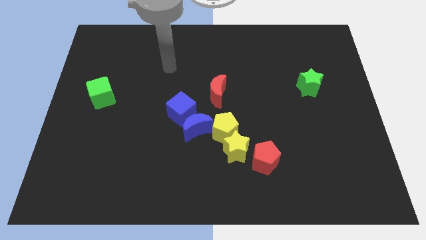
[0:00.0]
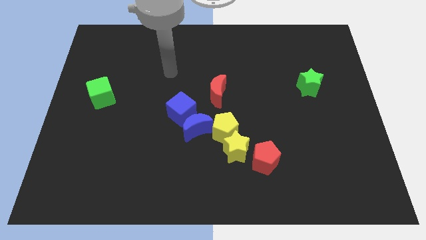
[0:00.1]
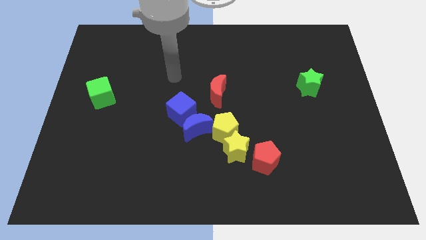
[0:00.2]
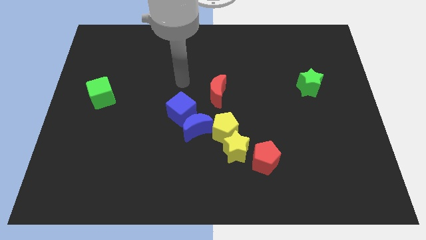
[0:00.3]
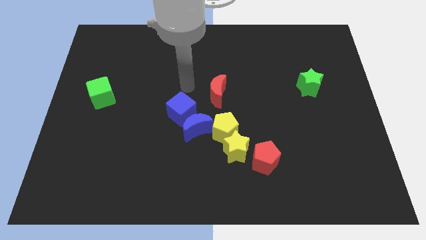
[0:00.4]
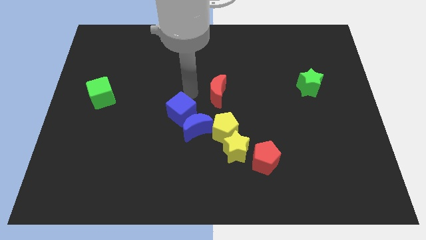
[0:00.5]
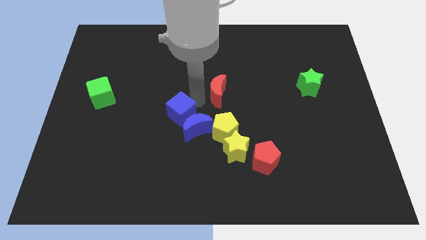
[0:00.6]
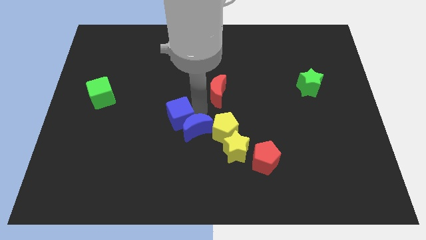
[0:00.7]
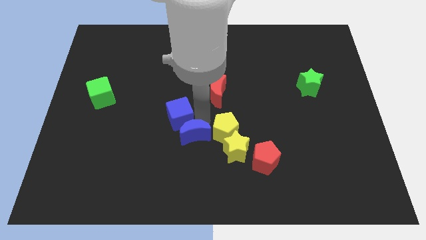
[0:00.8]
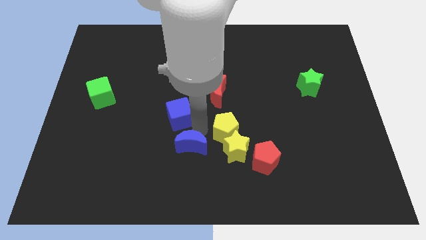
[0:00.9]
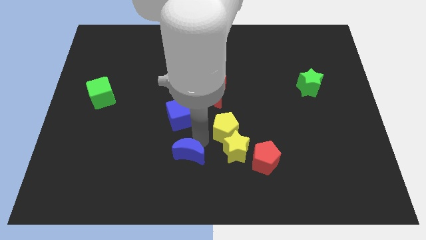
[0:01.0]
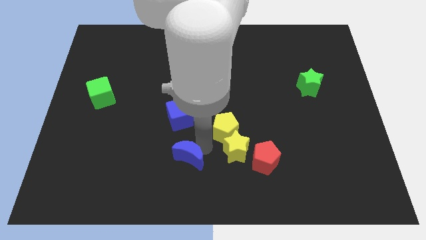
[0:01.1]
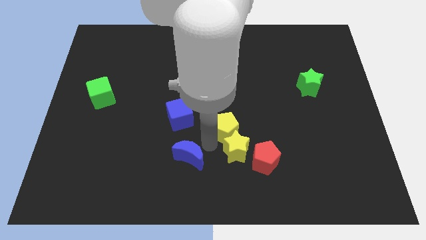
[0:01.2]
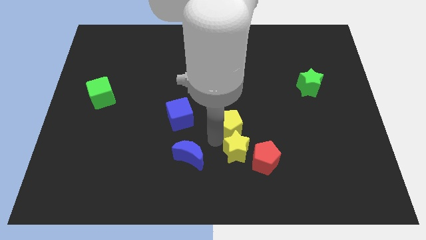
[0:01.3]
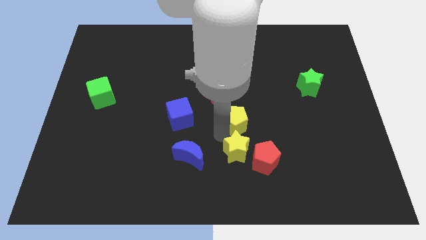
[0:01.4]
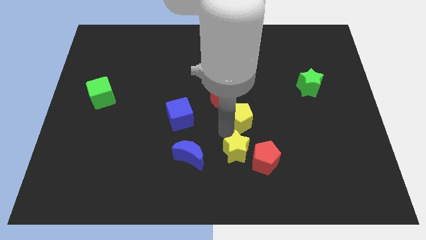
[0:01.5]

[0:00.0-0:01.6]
separate the yellow pentagon from the yellow star and blue moon

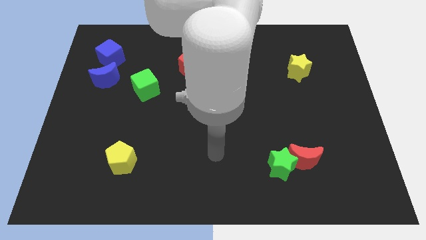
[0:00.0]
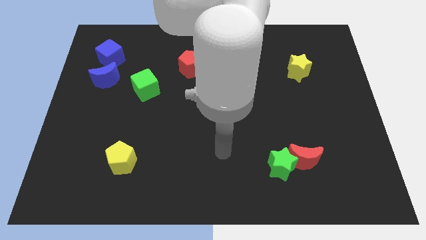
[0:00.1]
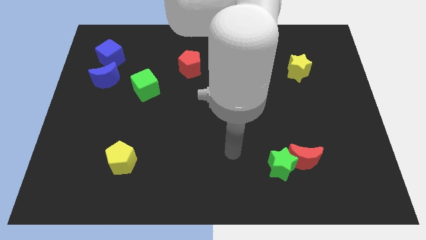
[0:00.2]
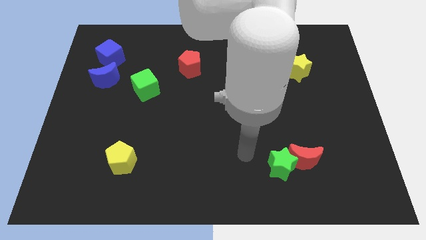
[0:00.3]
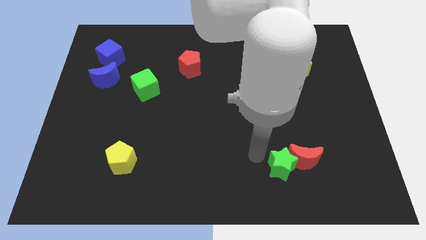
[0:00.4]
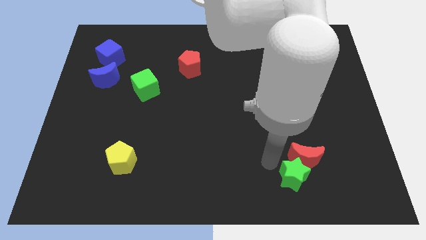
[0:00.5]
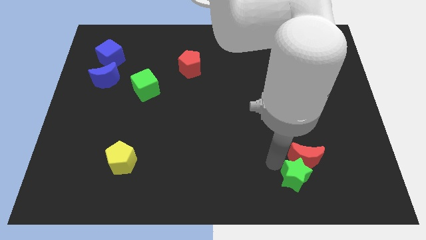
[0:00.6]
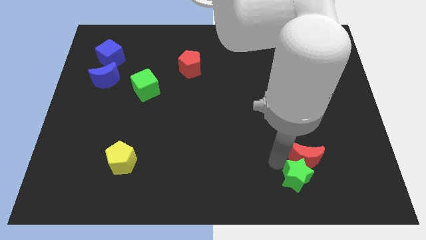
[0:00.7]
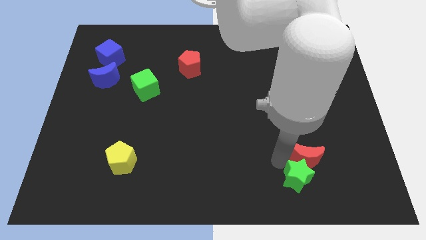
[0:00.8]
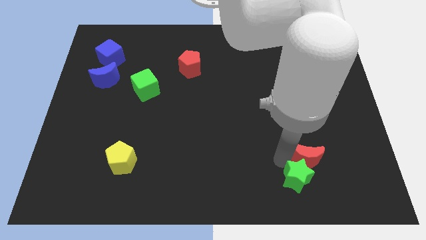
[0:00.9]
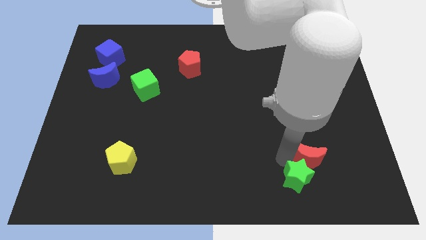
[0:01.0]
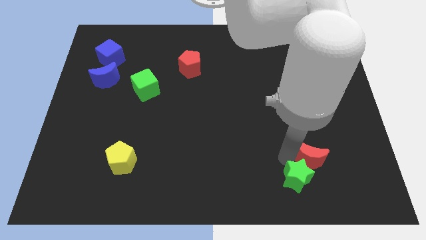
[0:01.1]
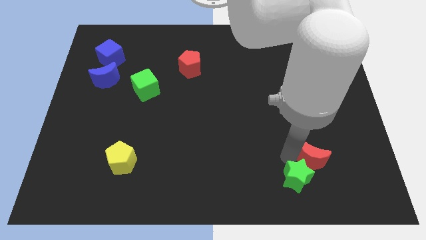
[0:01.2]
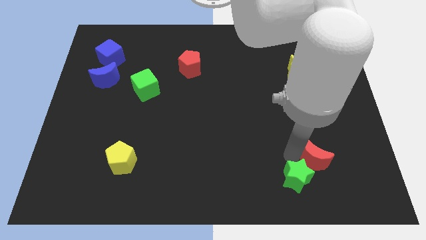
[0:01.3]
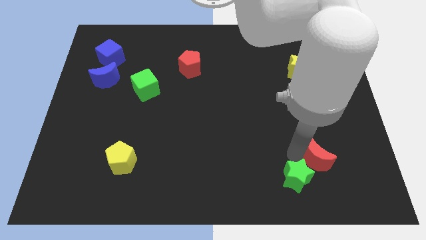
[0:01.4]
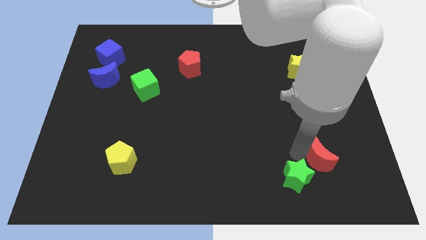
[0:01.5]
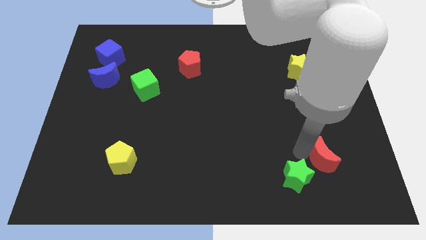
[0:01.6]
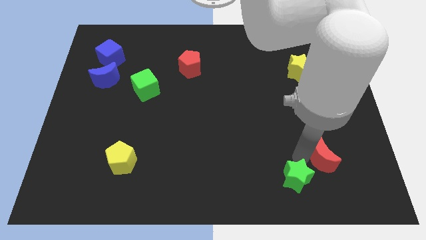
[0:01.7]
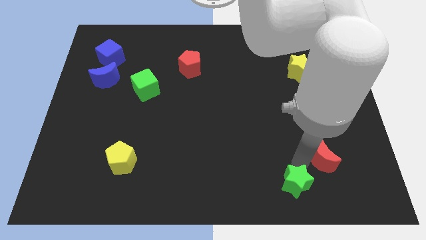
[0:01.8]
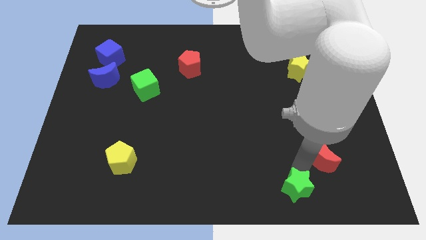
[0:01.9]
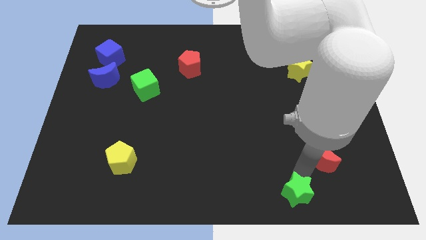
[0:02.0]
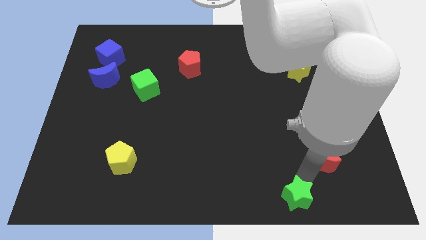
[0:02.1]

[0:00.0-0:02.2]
move the red moon away from the green star

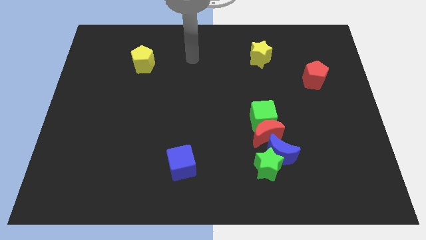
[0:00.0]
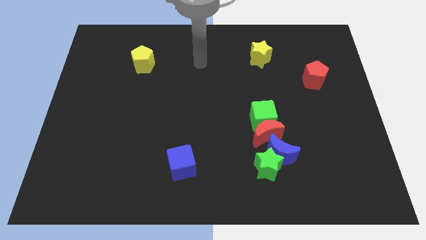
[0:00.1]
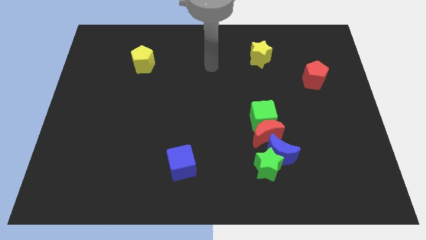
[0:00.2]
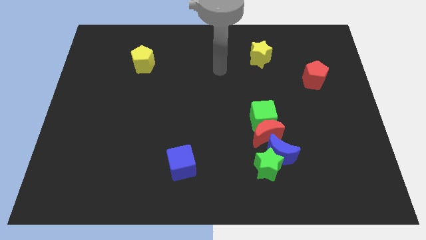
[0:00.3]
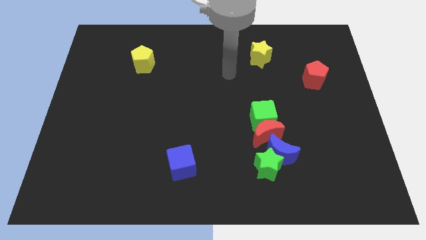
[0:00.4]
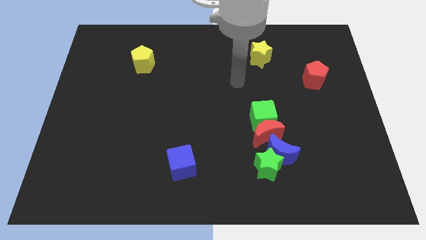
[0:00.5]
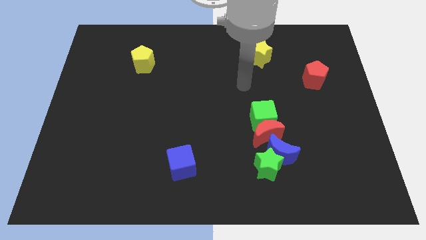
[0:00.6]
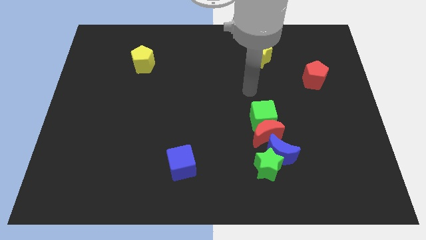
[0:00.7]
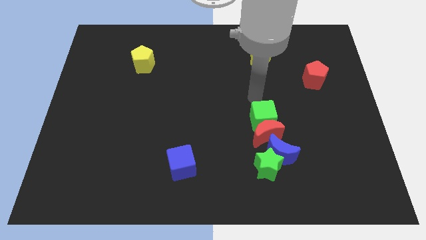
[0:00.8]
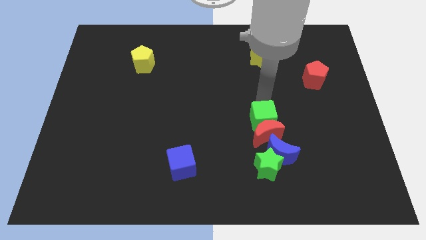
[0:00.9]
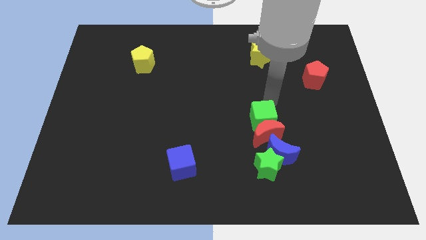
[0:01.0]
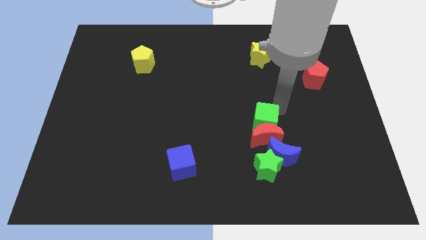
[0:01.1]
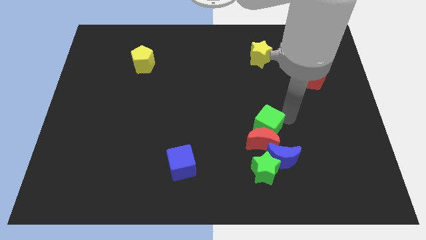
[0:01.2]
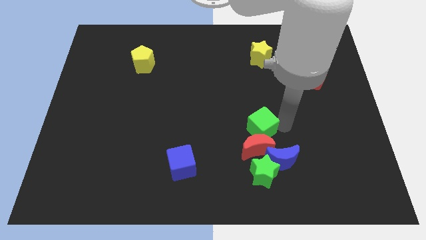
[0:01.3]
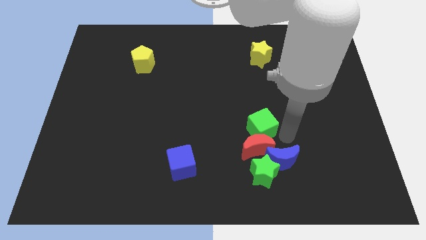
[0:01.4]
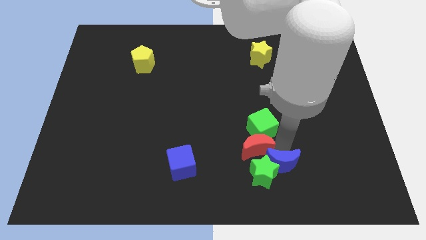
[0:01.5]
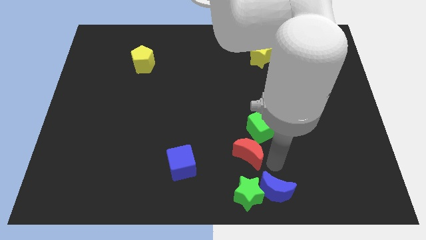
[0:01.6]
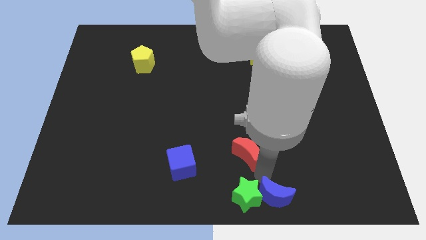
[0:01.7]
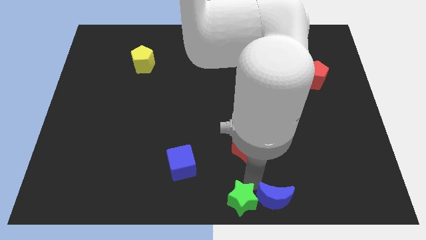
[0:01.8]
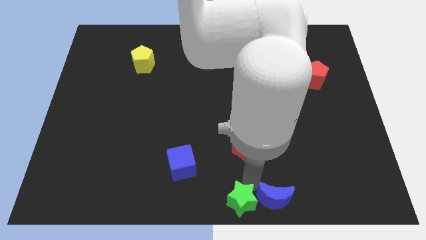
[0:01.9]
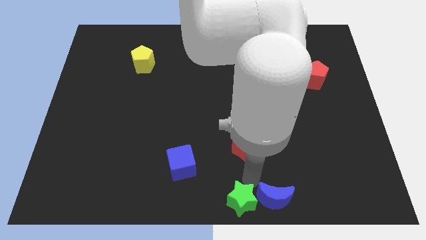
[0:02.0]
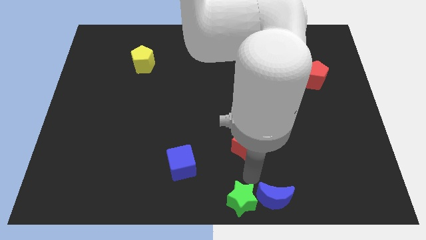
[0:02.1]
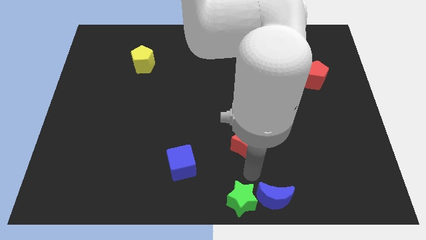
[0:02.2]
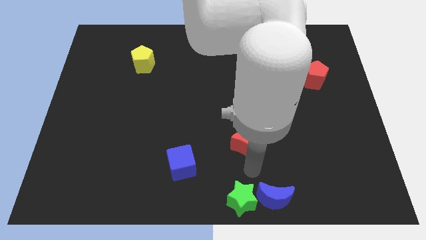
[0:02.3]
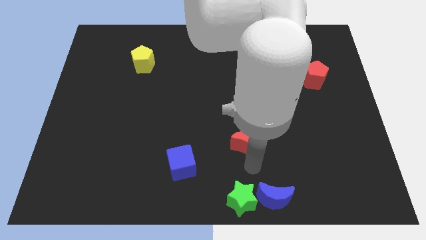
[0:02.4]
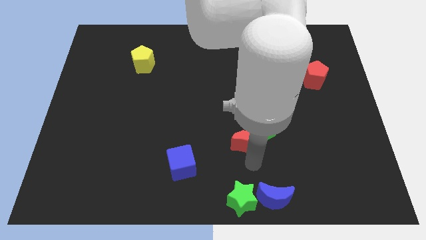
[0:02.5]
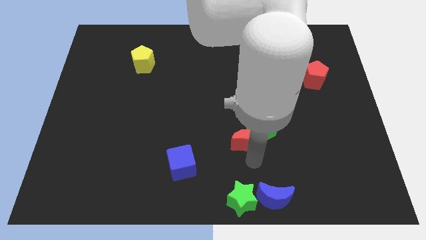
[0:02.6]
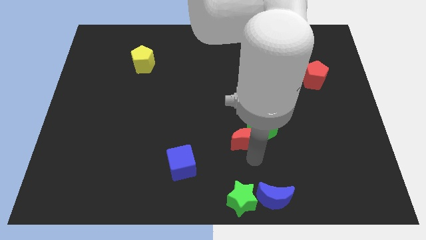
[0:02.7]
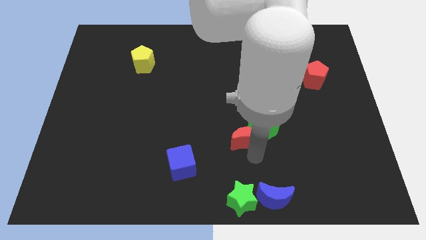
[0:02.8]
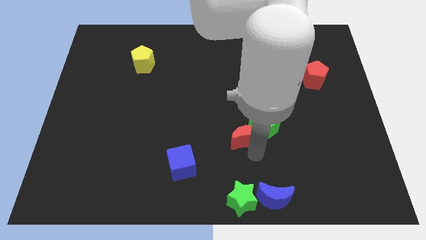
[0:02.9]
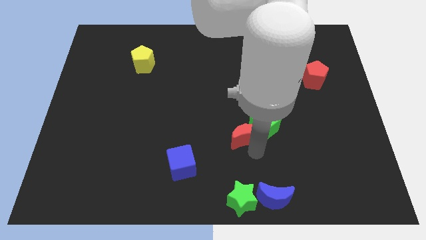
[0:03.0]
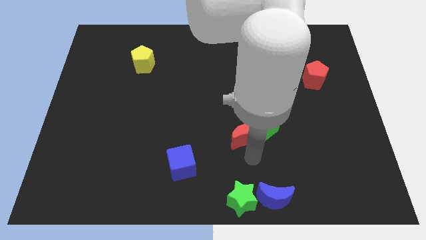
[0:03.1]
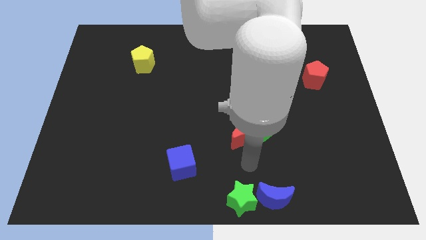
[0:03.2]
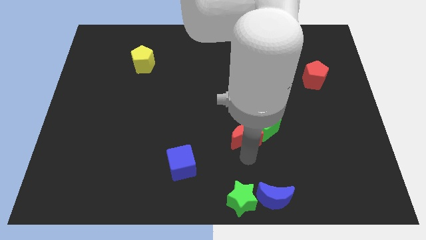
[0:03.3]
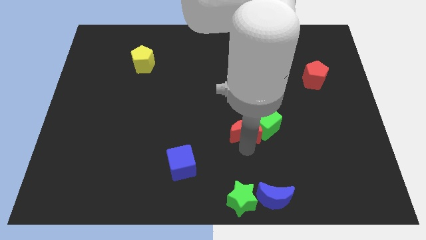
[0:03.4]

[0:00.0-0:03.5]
separate the red moon from the green cube, blue moon, and green star

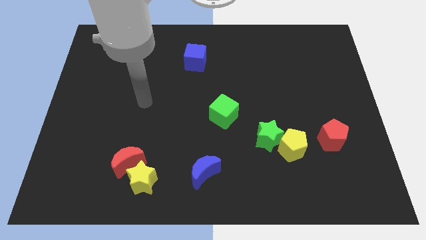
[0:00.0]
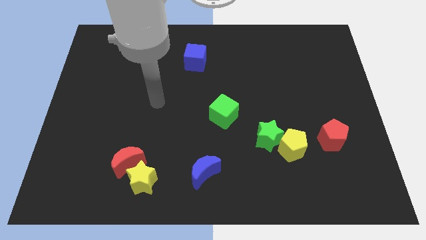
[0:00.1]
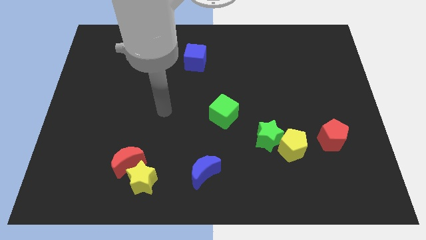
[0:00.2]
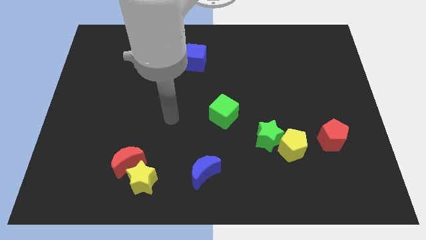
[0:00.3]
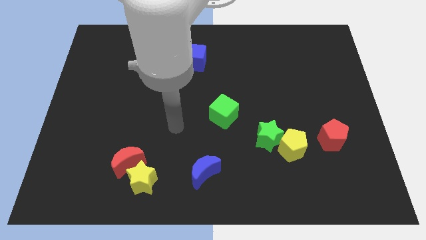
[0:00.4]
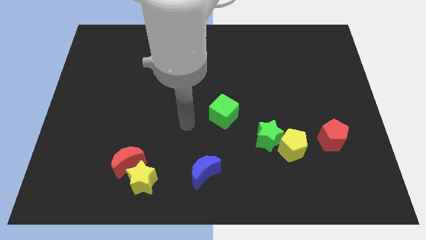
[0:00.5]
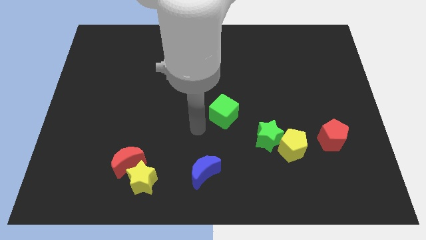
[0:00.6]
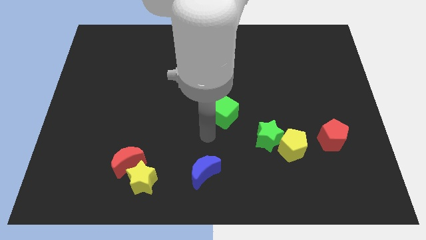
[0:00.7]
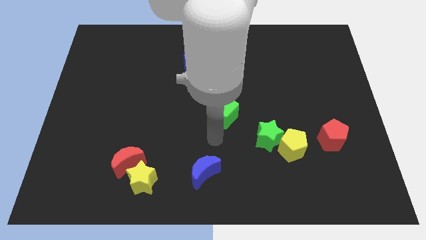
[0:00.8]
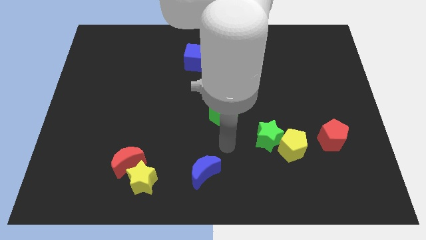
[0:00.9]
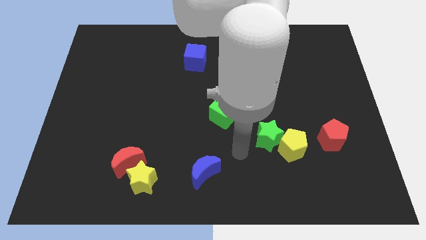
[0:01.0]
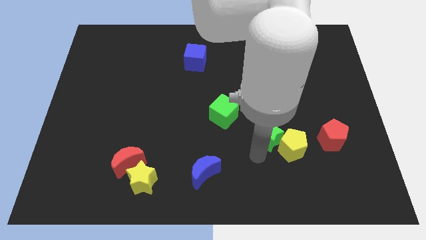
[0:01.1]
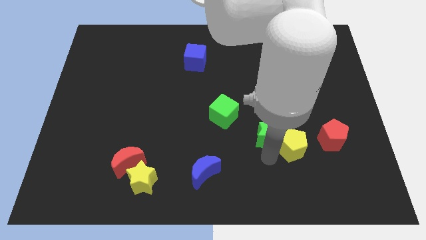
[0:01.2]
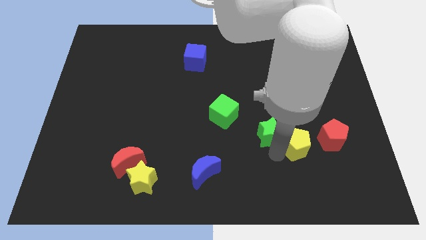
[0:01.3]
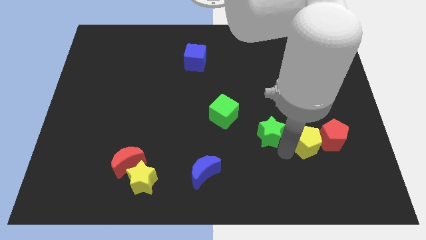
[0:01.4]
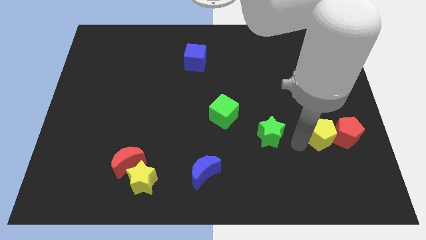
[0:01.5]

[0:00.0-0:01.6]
separate the green star from the yellow pentagon

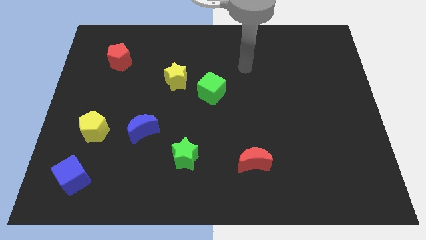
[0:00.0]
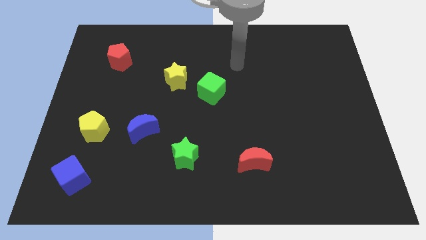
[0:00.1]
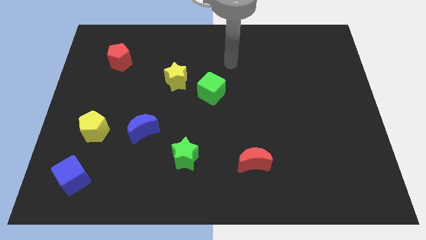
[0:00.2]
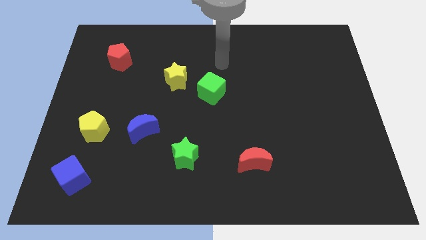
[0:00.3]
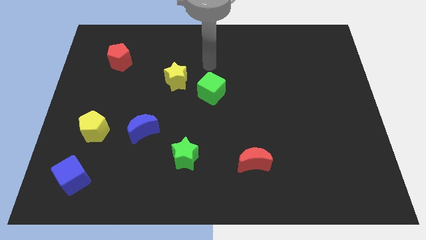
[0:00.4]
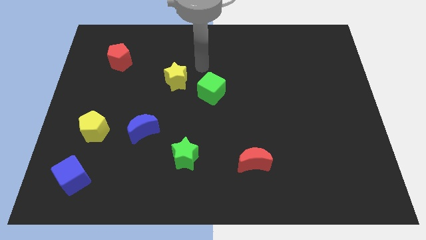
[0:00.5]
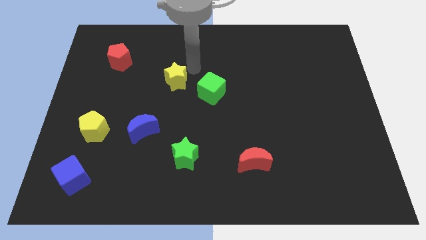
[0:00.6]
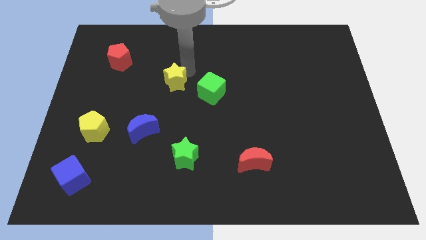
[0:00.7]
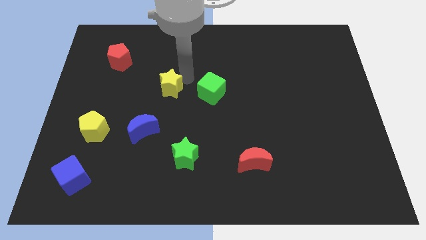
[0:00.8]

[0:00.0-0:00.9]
move the green cube away from the yellow star
